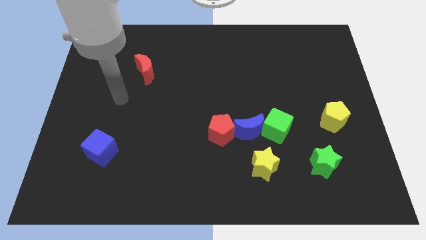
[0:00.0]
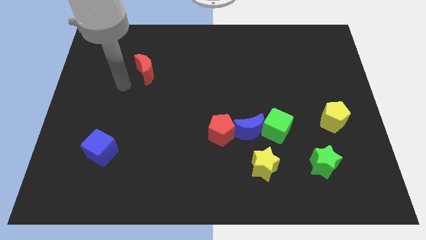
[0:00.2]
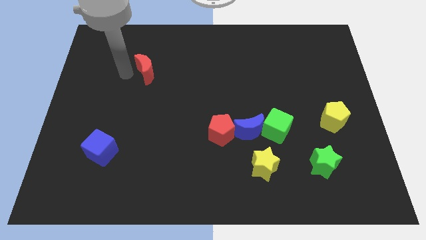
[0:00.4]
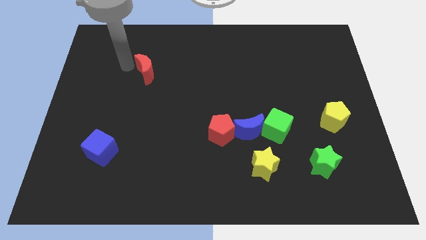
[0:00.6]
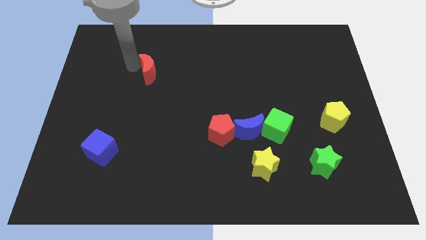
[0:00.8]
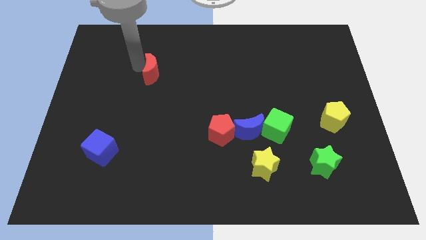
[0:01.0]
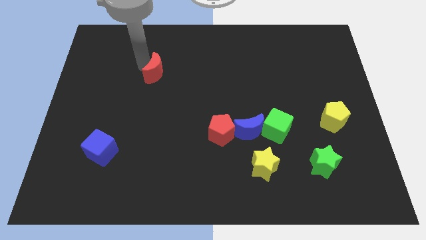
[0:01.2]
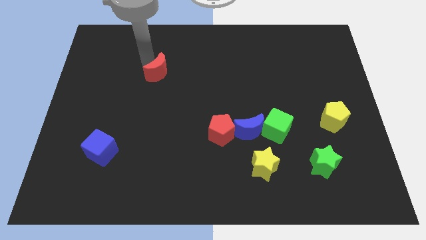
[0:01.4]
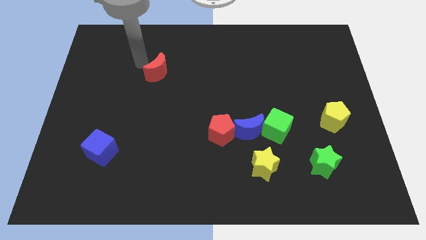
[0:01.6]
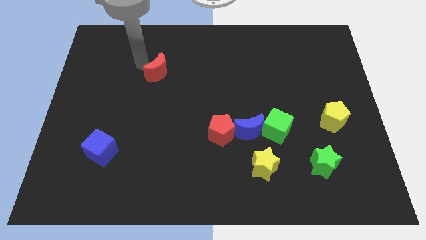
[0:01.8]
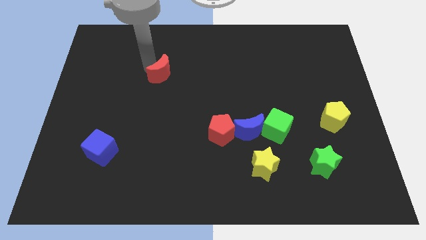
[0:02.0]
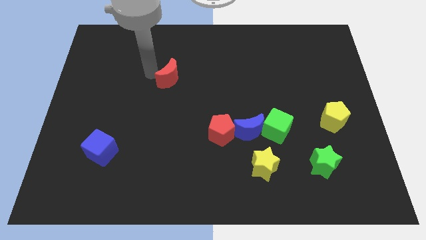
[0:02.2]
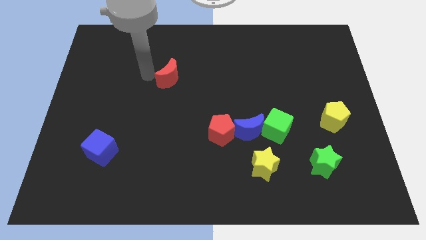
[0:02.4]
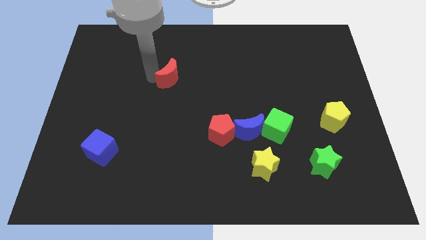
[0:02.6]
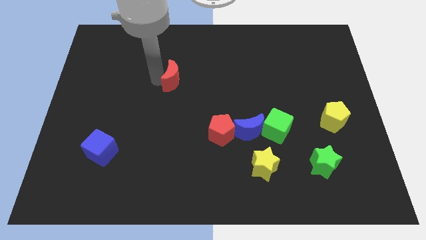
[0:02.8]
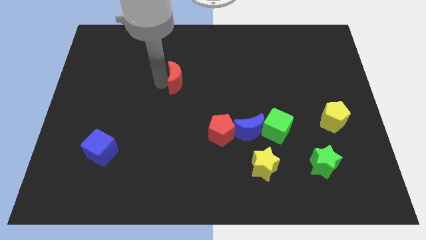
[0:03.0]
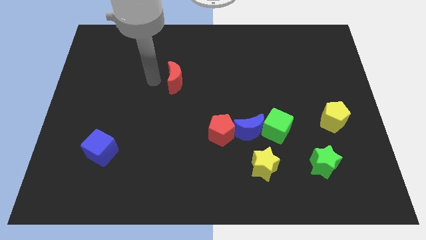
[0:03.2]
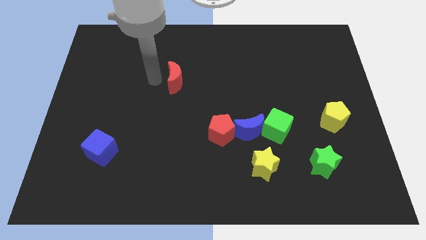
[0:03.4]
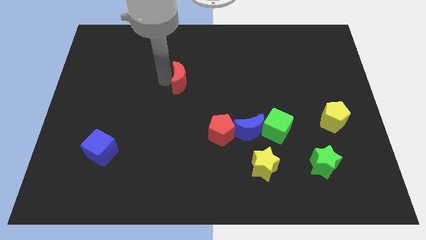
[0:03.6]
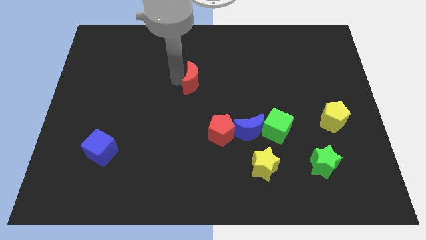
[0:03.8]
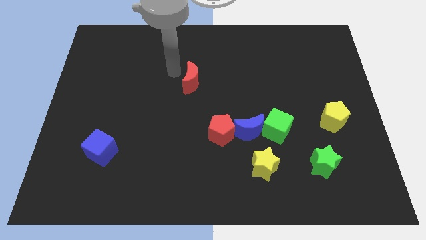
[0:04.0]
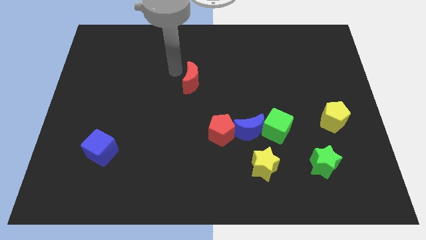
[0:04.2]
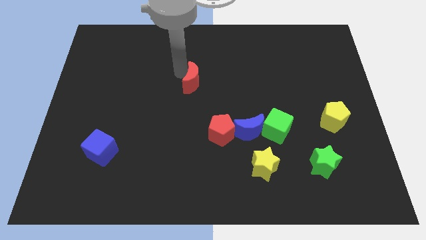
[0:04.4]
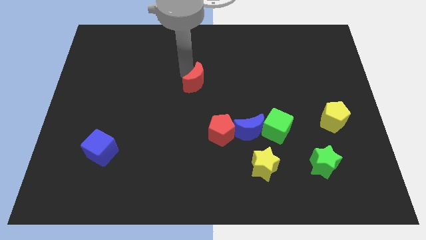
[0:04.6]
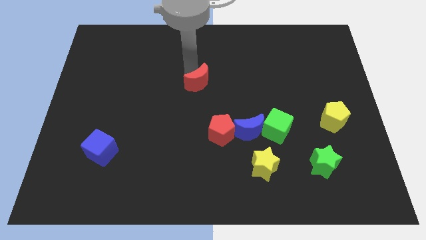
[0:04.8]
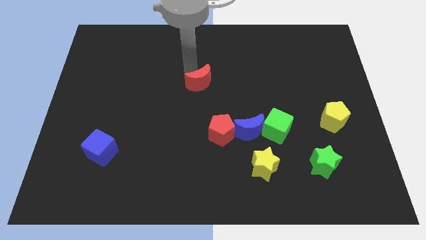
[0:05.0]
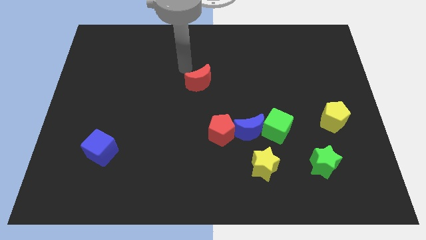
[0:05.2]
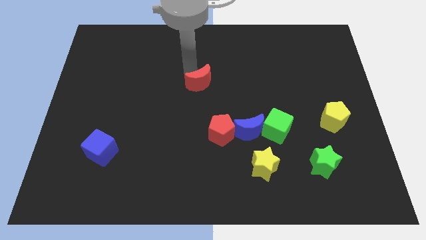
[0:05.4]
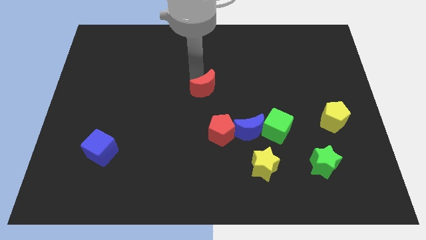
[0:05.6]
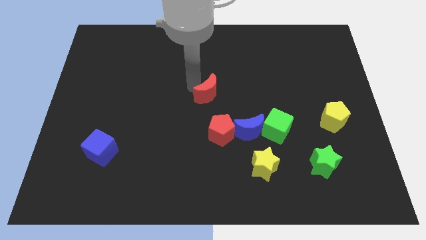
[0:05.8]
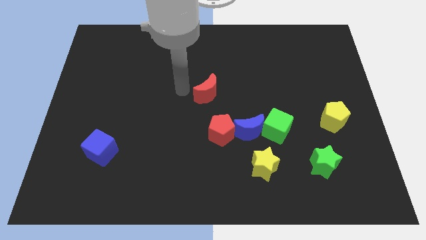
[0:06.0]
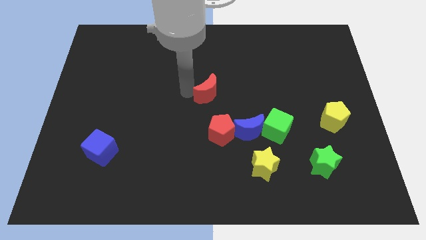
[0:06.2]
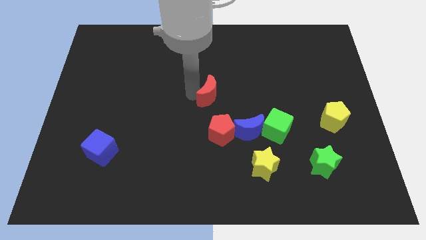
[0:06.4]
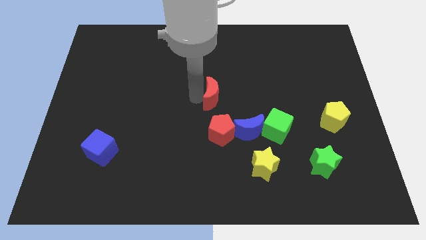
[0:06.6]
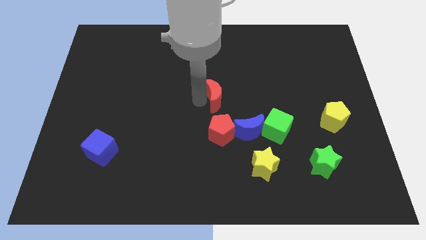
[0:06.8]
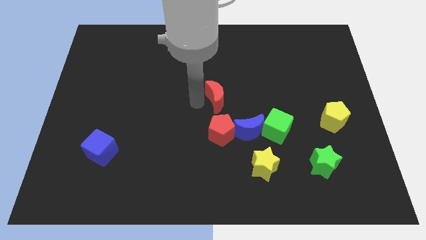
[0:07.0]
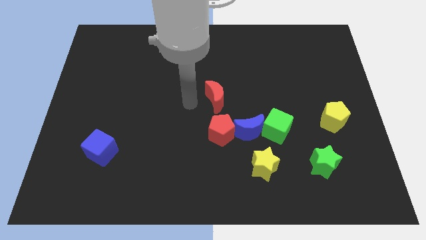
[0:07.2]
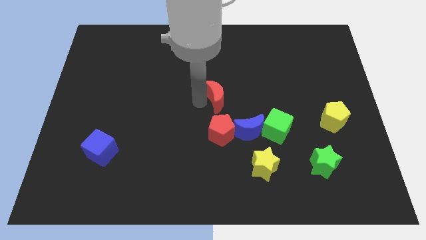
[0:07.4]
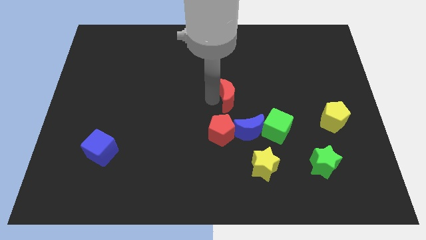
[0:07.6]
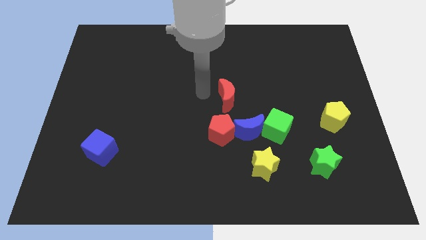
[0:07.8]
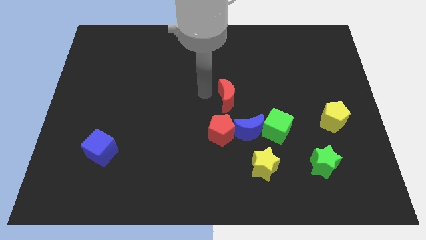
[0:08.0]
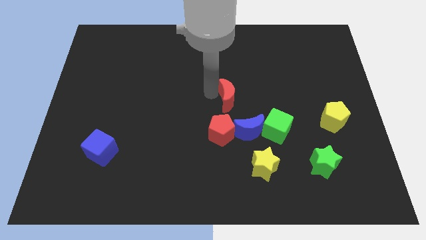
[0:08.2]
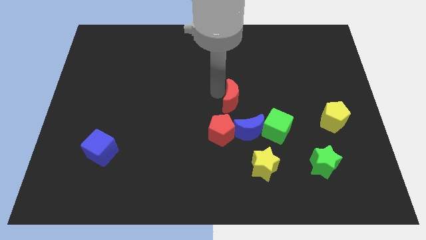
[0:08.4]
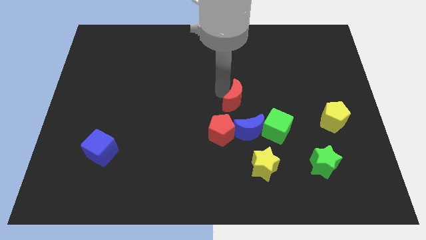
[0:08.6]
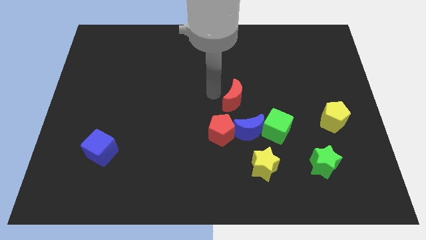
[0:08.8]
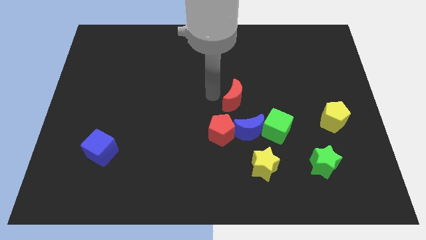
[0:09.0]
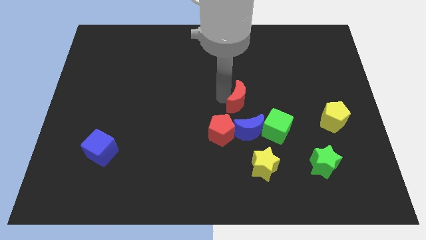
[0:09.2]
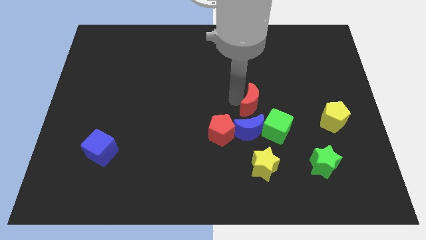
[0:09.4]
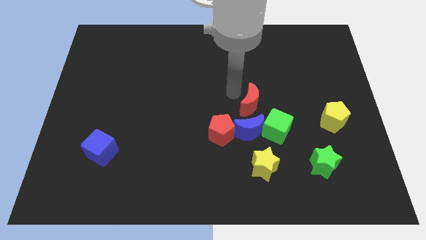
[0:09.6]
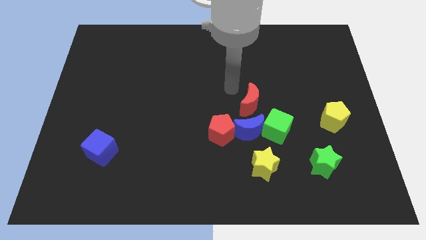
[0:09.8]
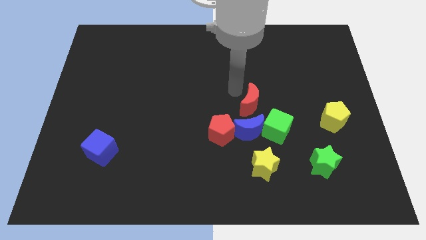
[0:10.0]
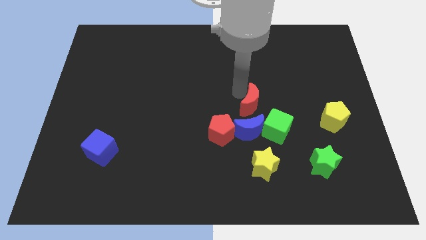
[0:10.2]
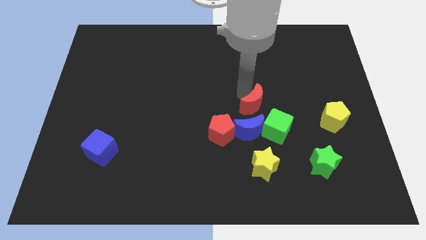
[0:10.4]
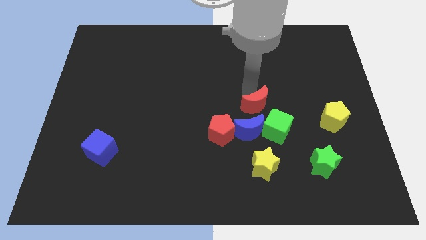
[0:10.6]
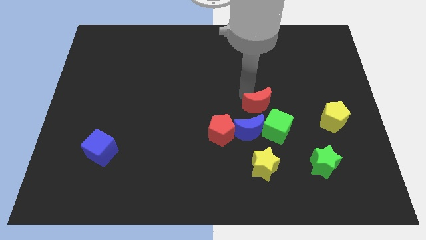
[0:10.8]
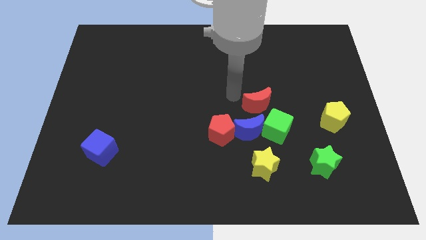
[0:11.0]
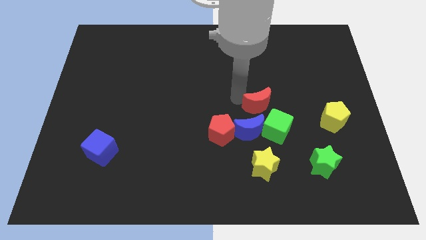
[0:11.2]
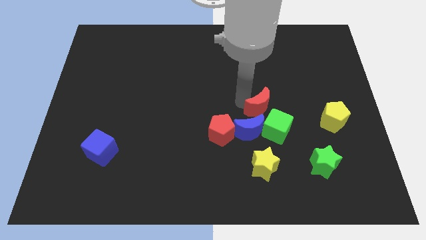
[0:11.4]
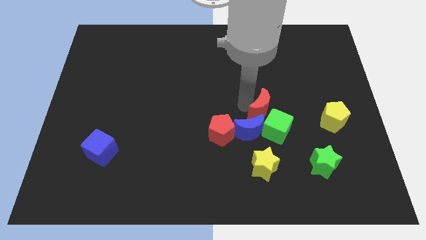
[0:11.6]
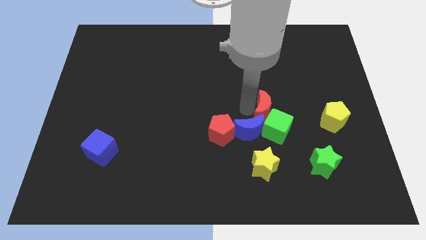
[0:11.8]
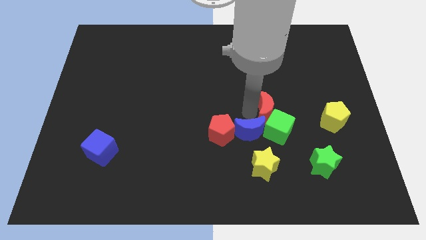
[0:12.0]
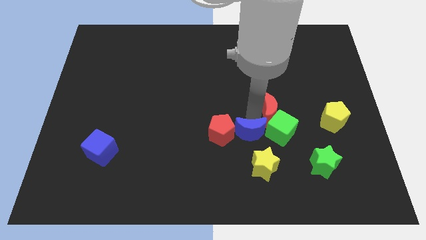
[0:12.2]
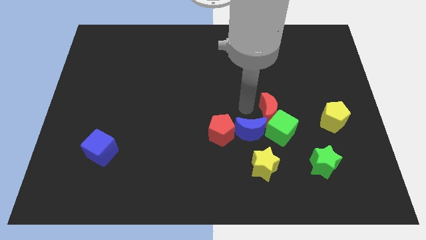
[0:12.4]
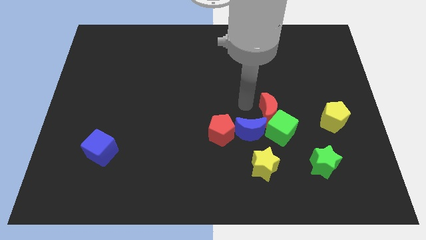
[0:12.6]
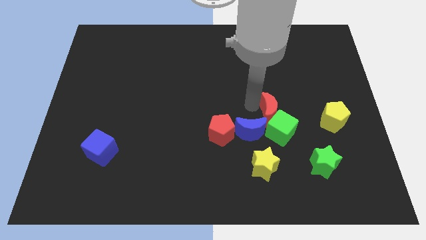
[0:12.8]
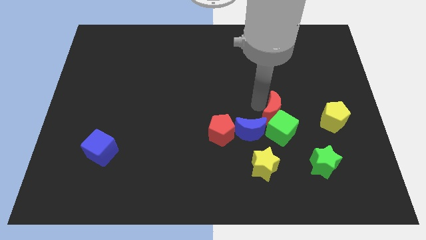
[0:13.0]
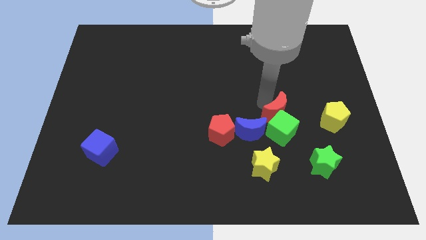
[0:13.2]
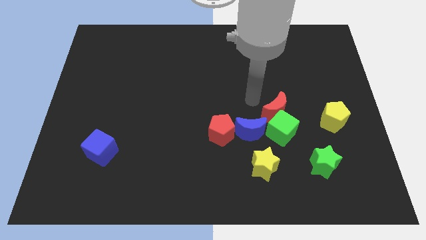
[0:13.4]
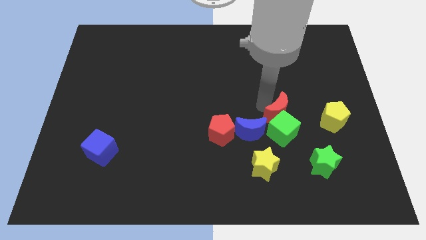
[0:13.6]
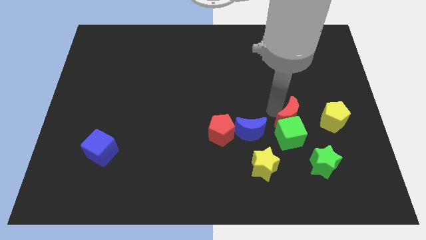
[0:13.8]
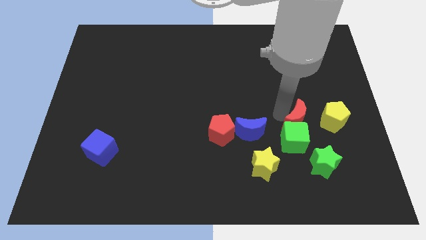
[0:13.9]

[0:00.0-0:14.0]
move the red moon above the green star
